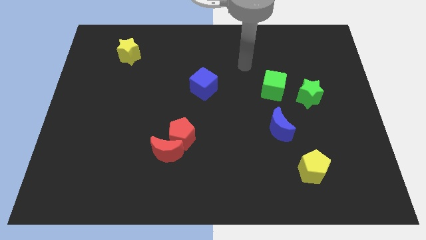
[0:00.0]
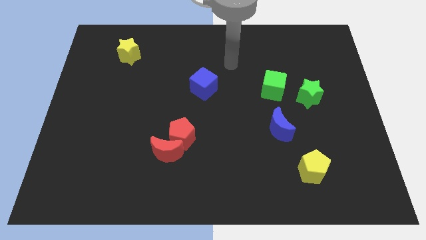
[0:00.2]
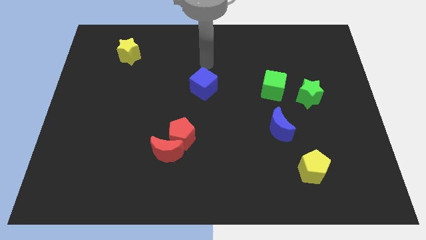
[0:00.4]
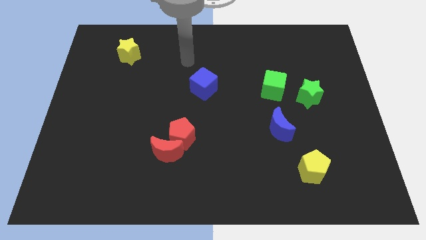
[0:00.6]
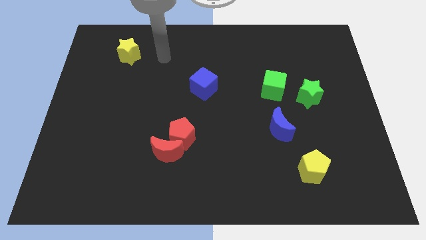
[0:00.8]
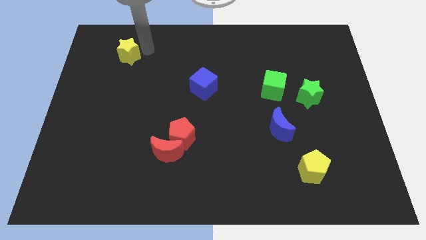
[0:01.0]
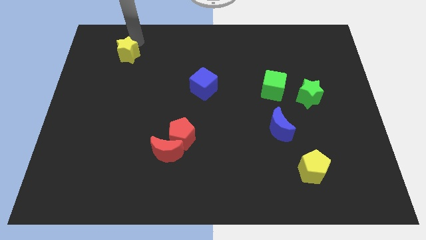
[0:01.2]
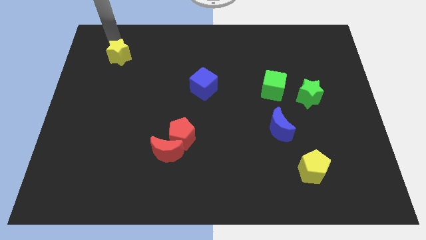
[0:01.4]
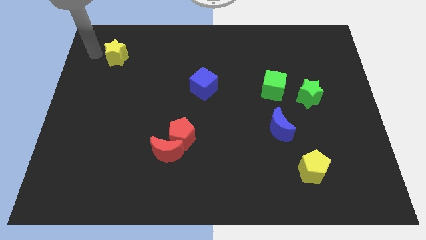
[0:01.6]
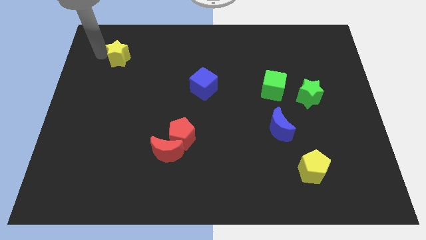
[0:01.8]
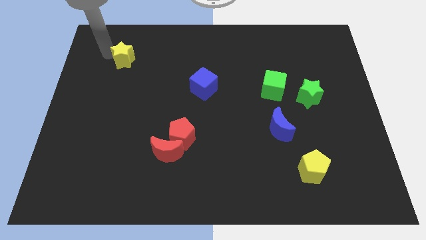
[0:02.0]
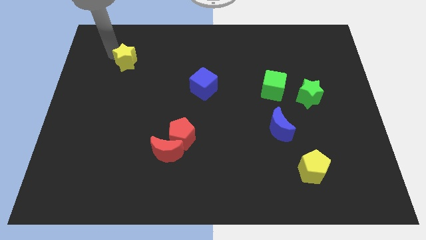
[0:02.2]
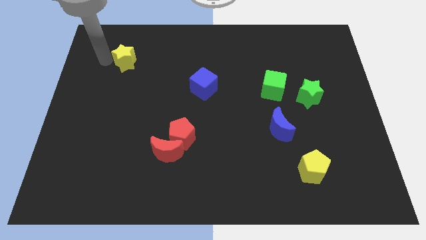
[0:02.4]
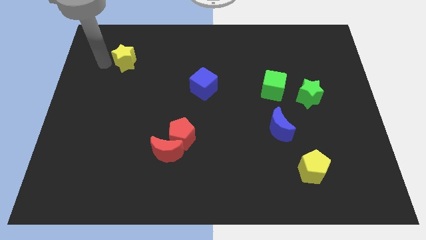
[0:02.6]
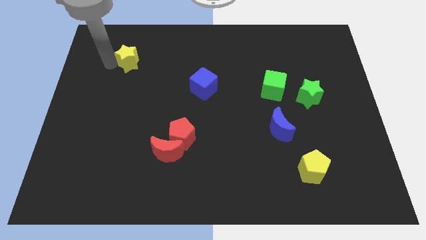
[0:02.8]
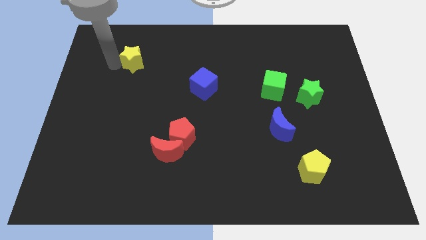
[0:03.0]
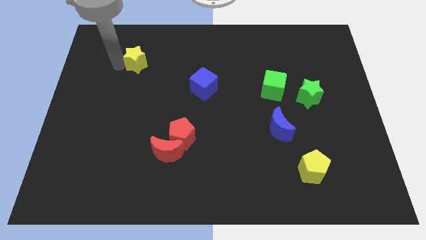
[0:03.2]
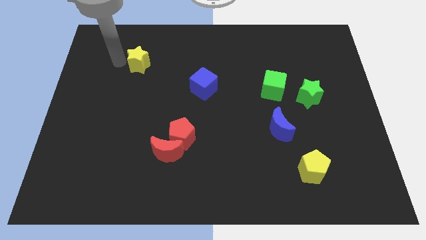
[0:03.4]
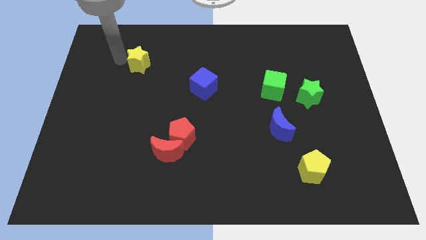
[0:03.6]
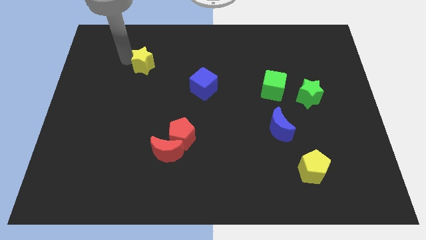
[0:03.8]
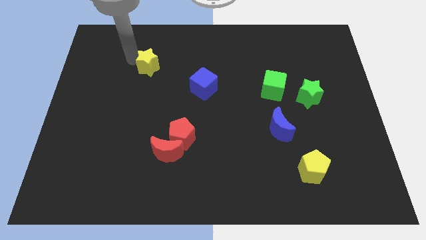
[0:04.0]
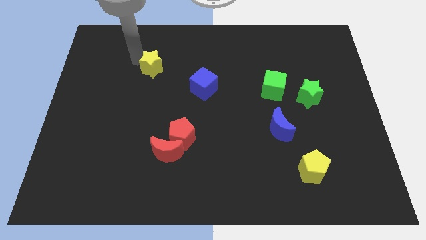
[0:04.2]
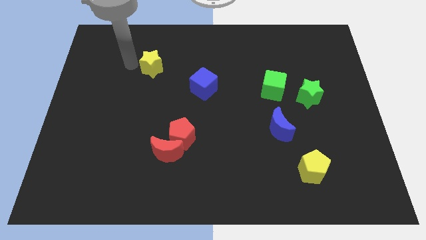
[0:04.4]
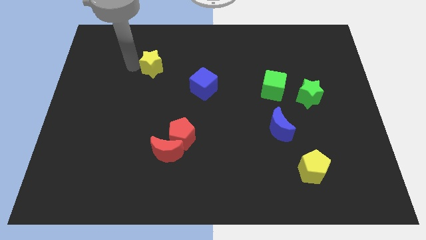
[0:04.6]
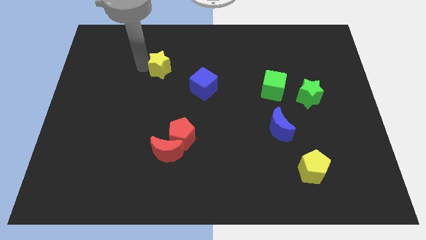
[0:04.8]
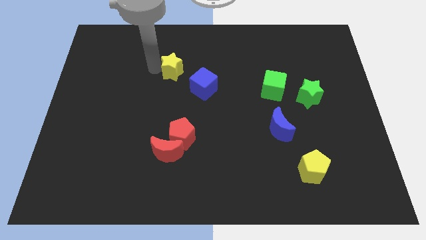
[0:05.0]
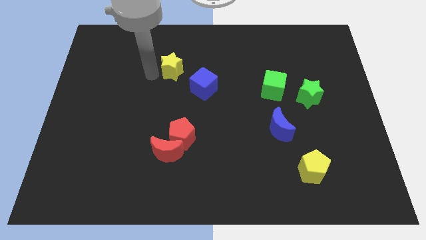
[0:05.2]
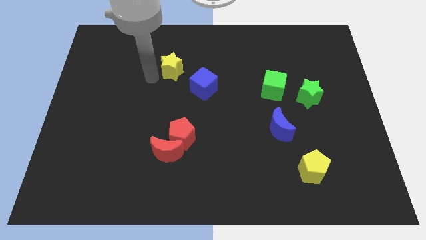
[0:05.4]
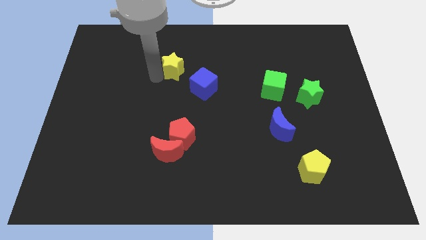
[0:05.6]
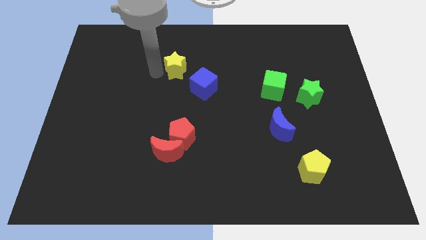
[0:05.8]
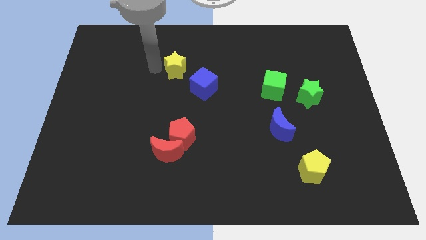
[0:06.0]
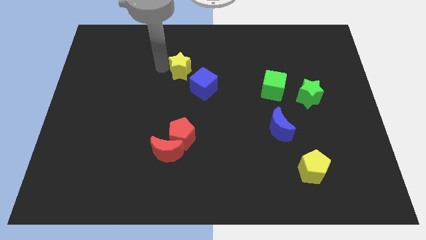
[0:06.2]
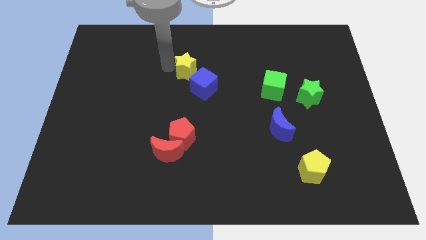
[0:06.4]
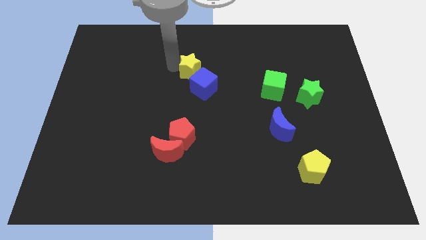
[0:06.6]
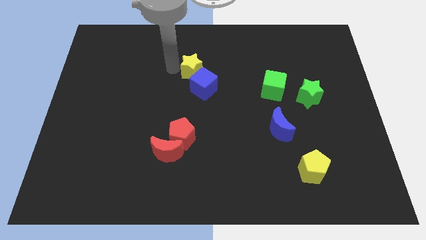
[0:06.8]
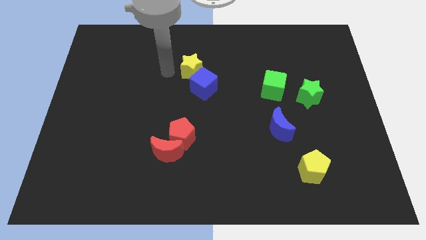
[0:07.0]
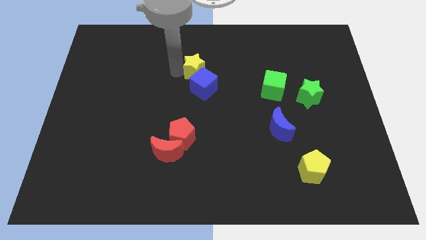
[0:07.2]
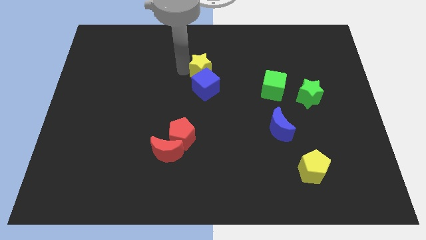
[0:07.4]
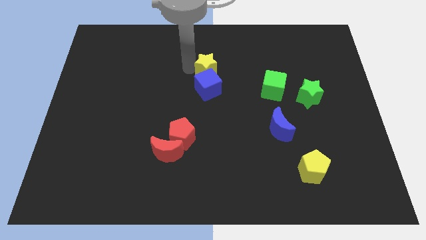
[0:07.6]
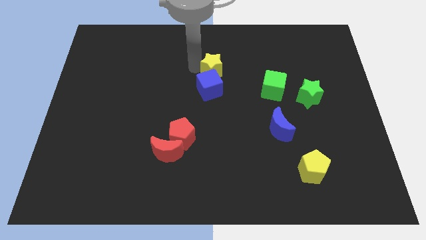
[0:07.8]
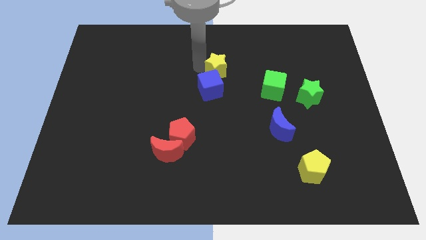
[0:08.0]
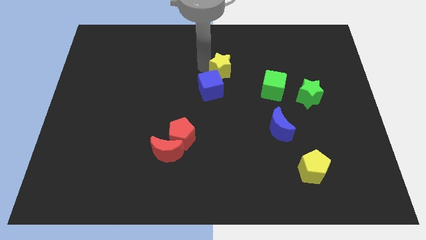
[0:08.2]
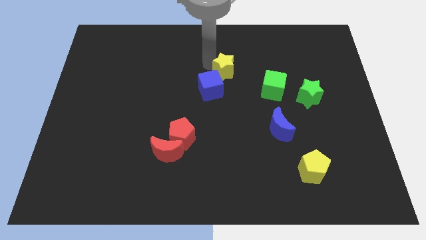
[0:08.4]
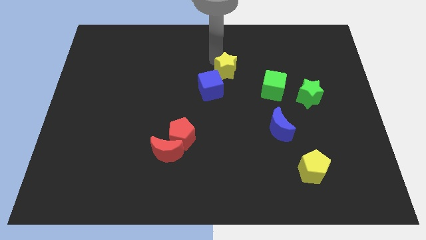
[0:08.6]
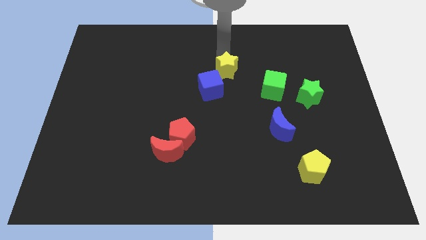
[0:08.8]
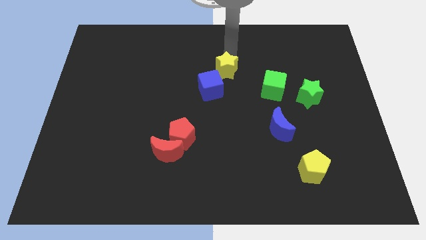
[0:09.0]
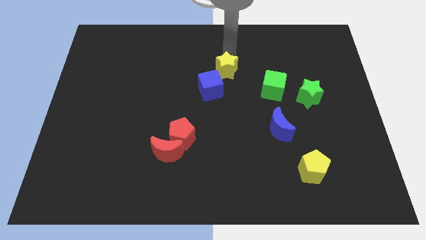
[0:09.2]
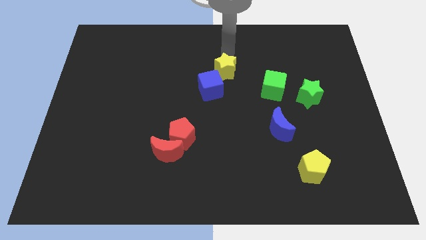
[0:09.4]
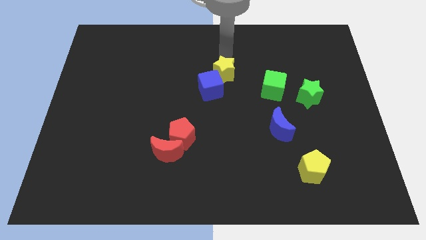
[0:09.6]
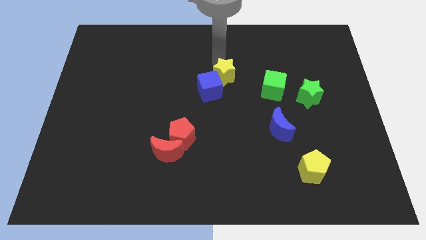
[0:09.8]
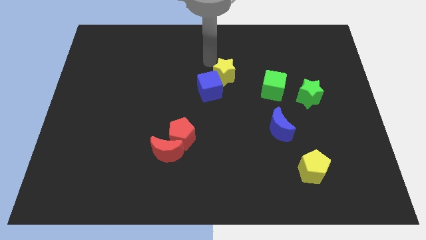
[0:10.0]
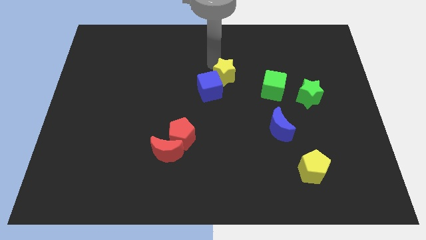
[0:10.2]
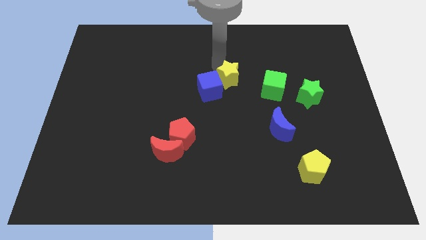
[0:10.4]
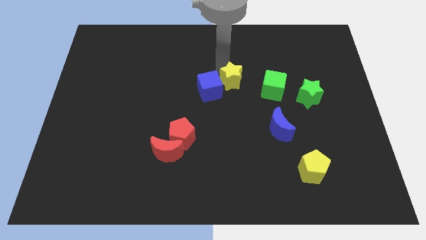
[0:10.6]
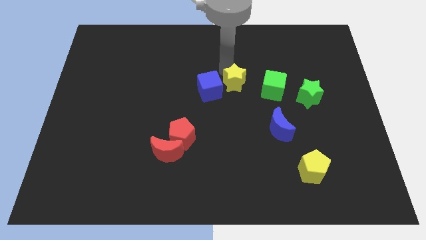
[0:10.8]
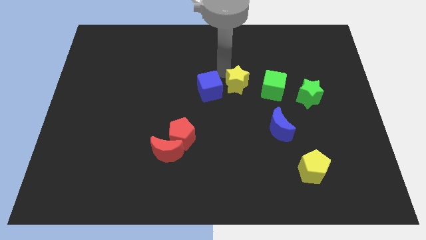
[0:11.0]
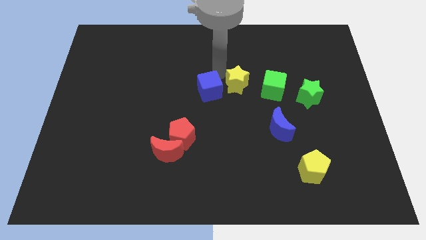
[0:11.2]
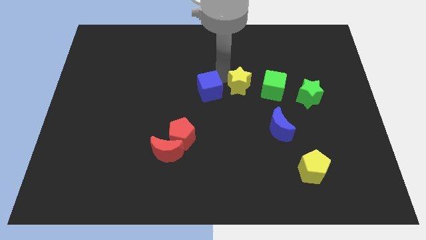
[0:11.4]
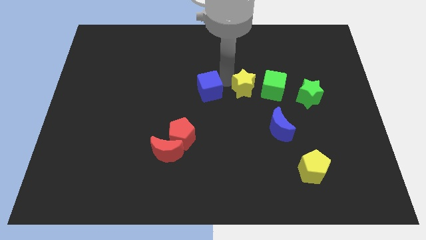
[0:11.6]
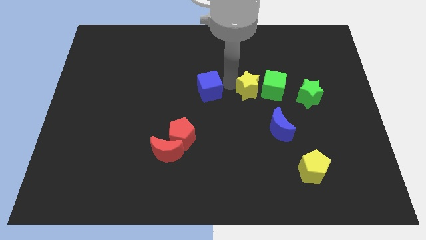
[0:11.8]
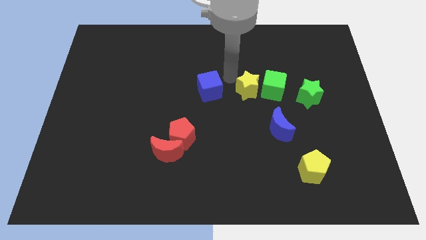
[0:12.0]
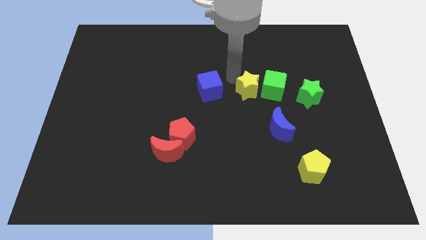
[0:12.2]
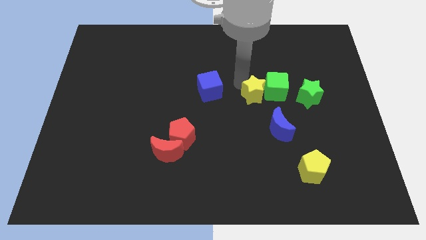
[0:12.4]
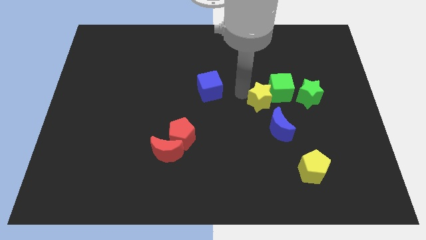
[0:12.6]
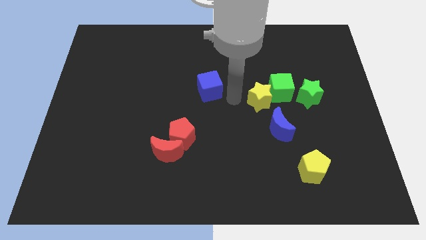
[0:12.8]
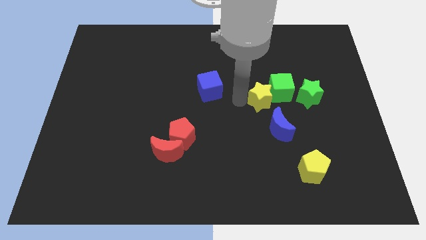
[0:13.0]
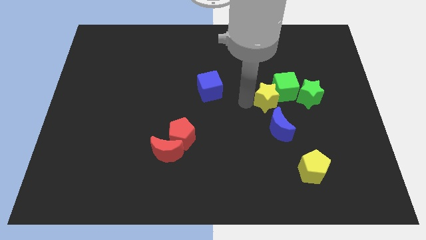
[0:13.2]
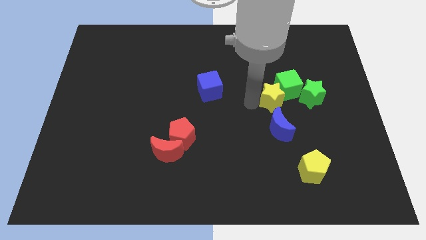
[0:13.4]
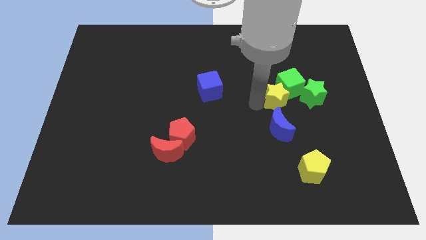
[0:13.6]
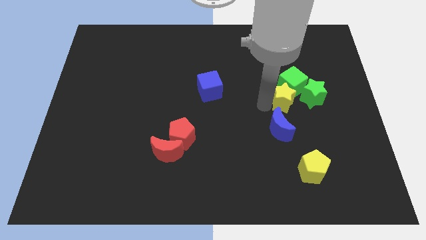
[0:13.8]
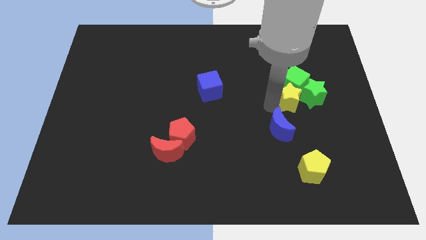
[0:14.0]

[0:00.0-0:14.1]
push the yellow star towards the green star
